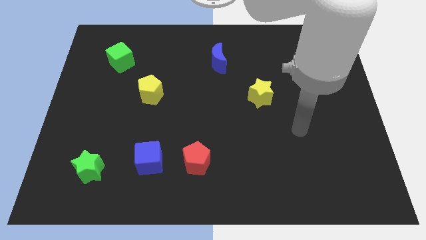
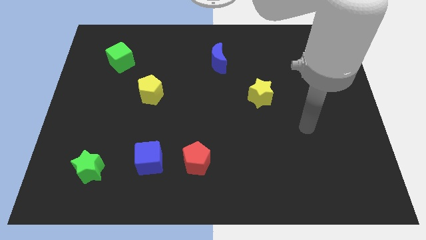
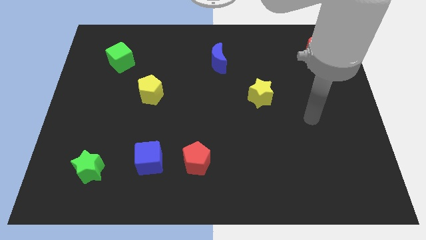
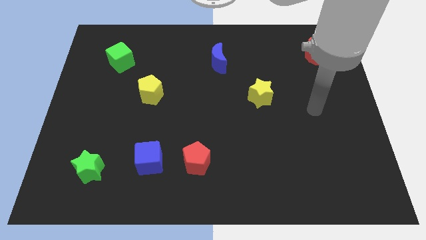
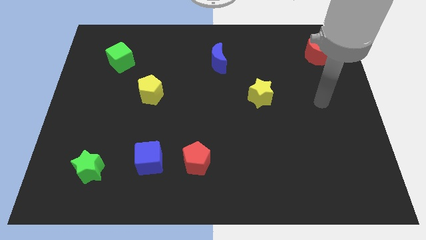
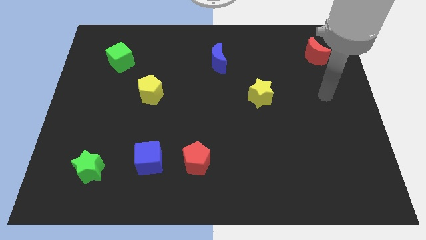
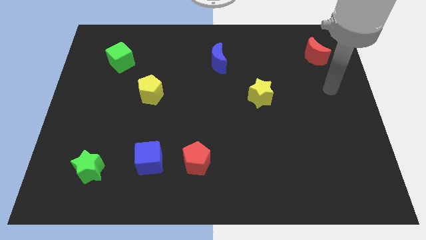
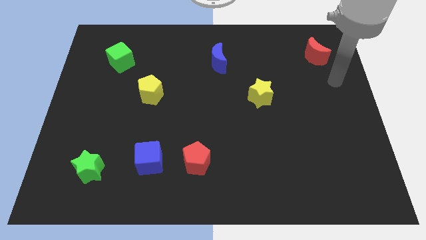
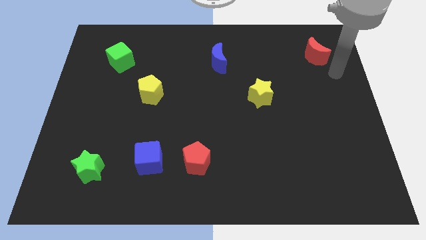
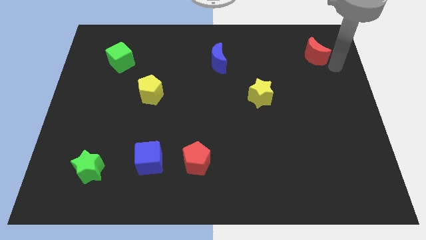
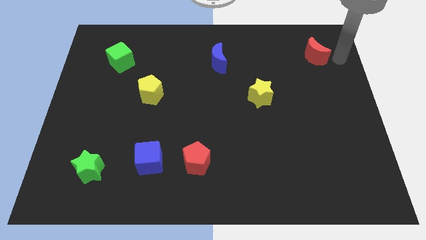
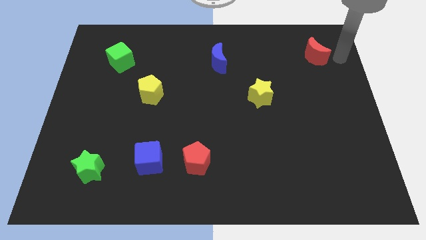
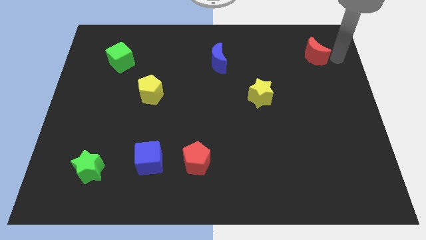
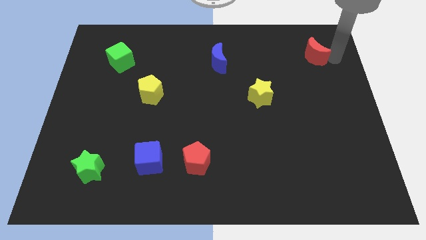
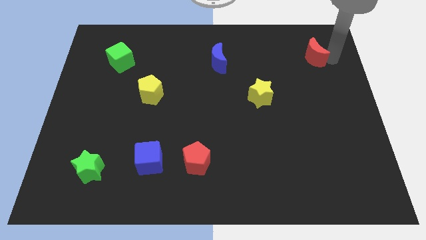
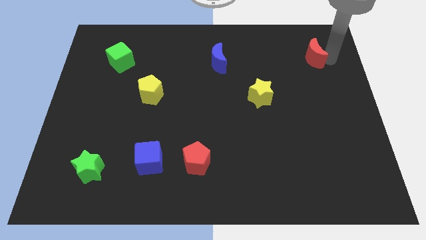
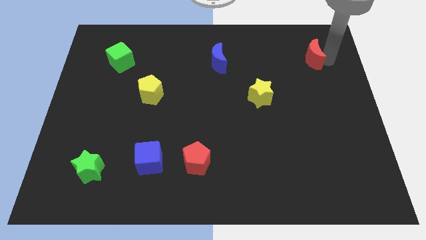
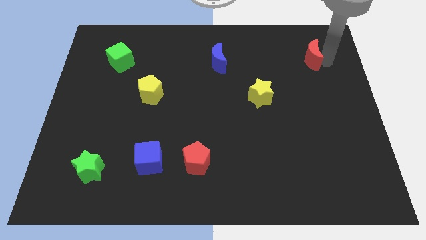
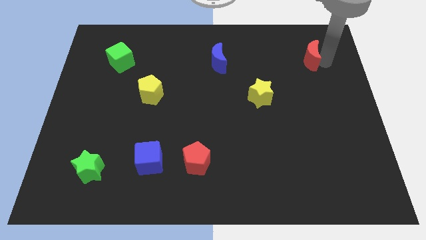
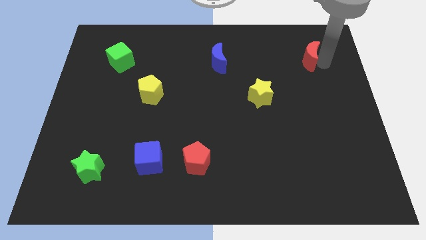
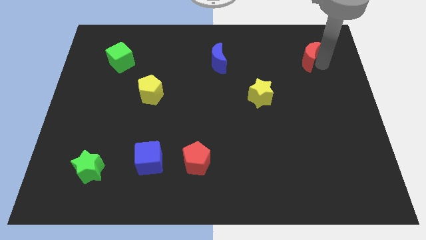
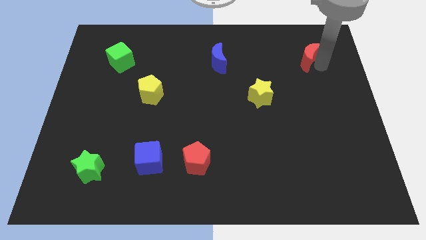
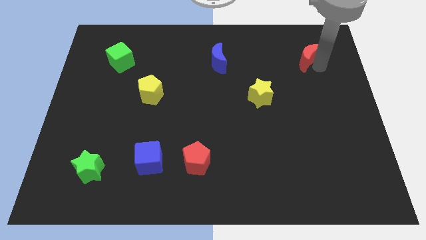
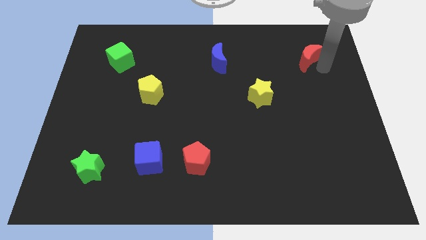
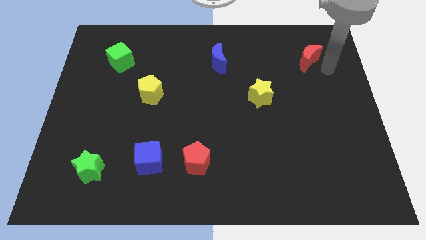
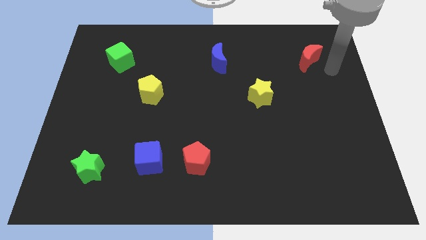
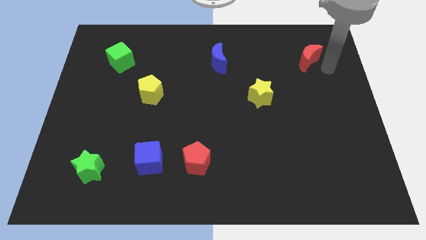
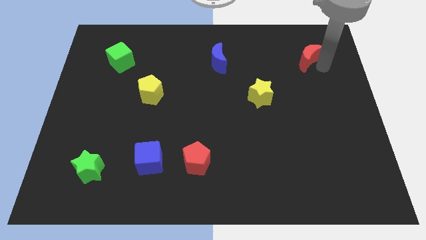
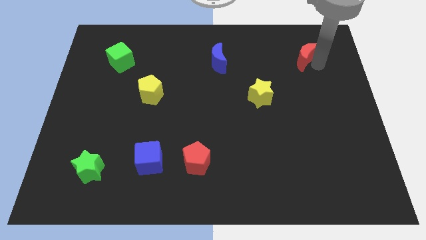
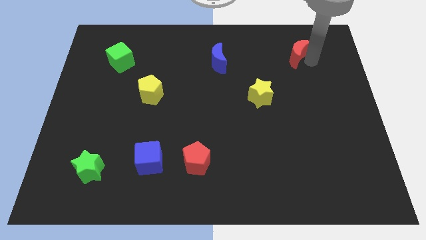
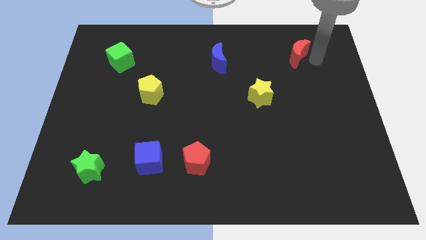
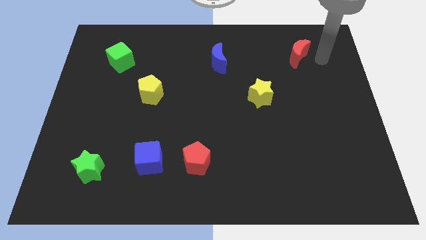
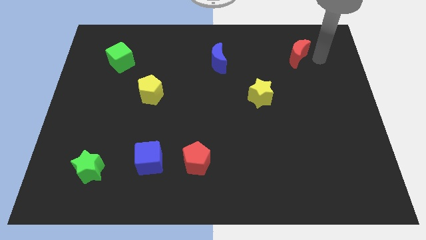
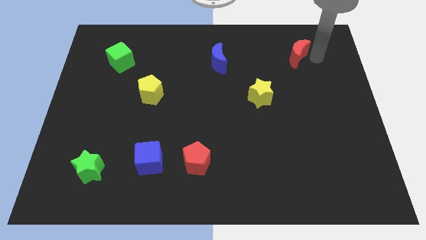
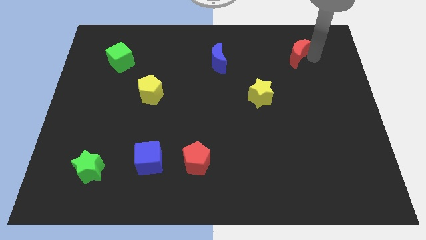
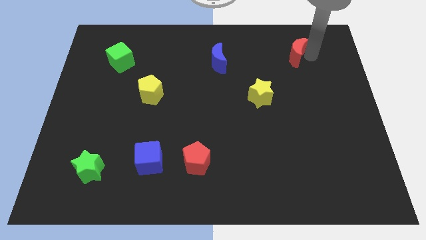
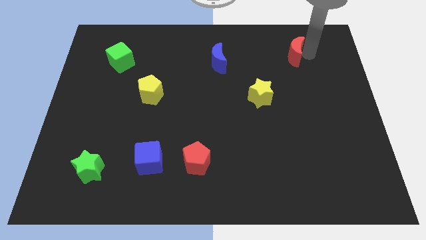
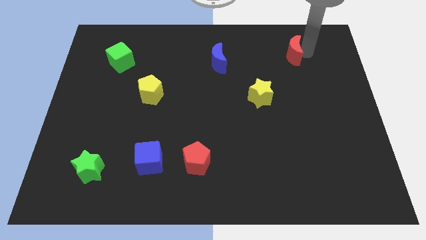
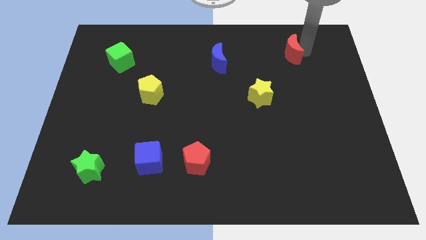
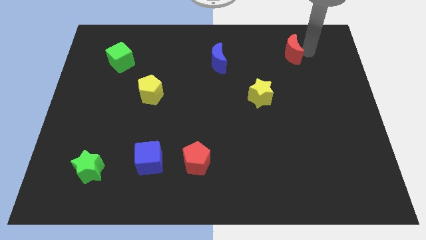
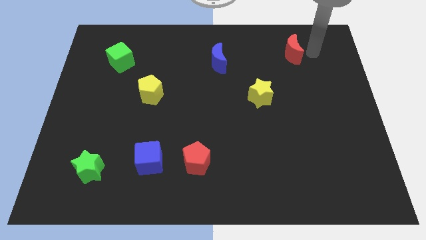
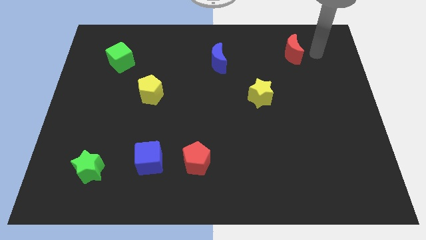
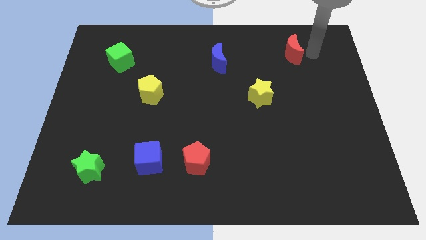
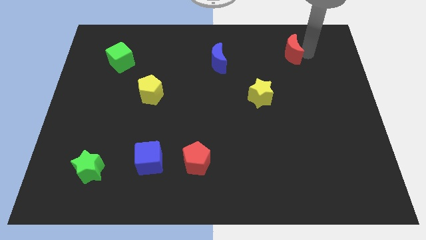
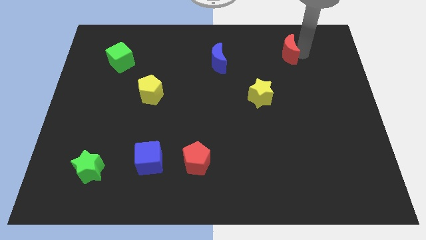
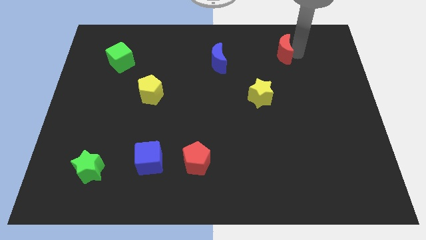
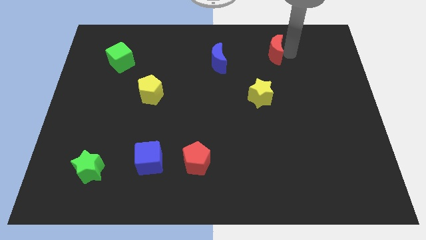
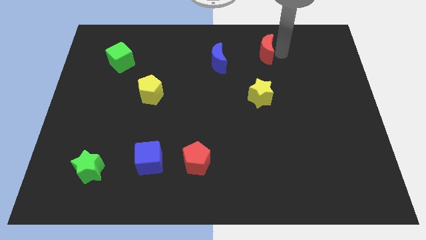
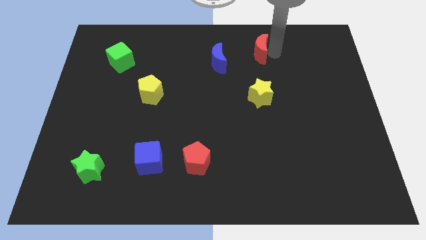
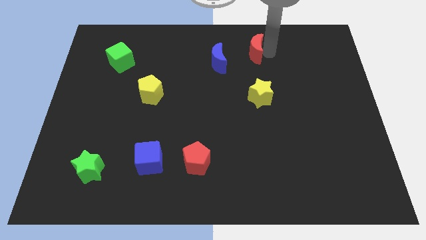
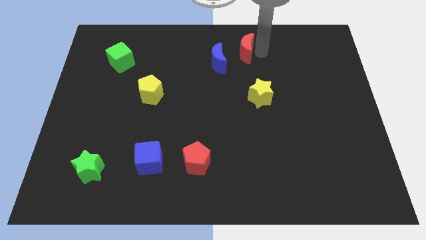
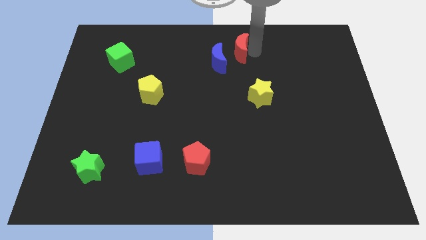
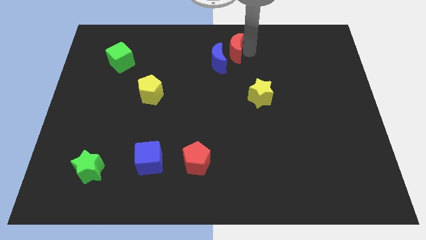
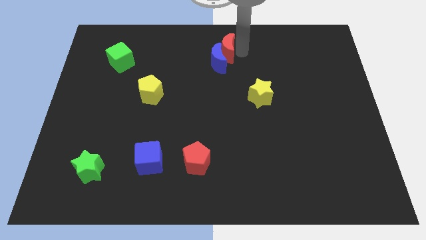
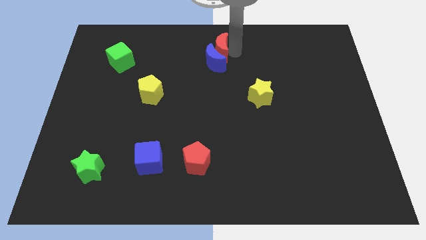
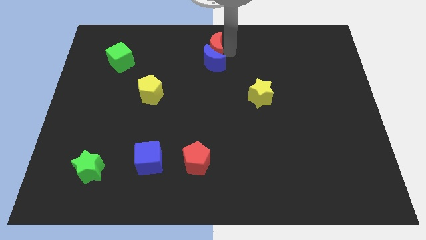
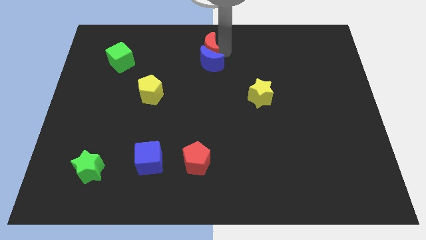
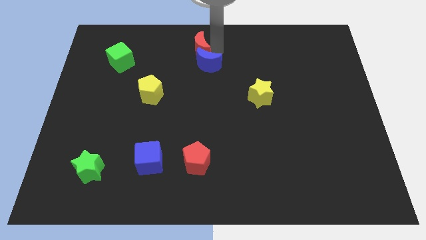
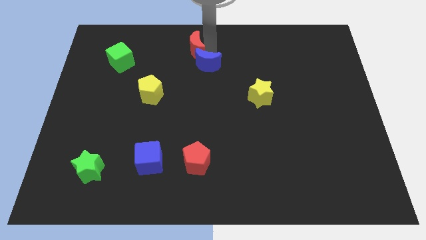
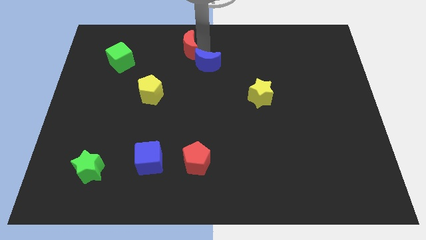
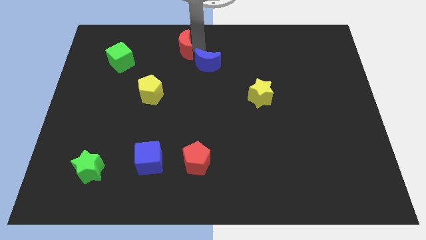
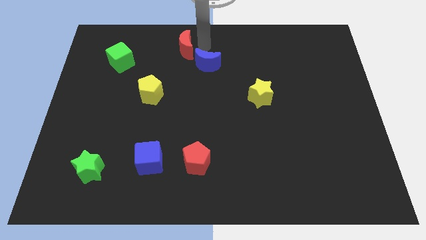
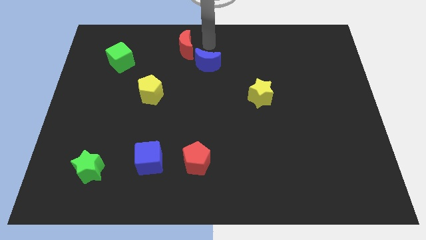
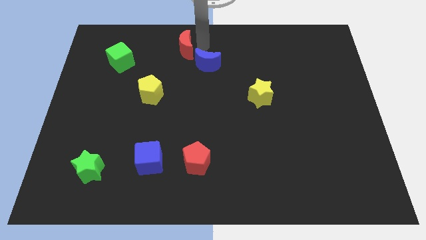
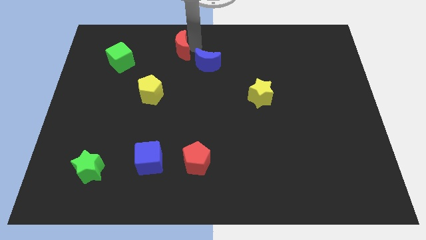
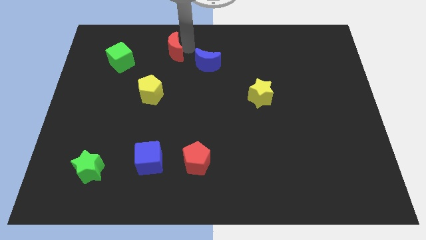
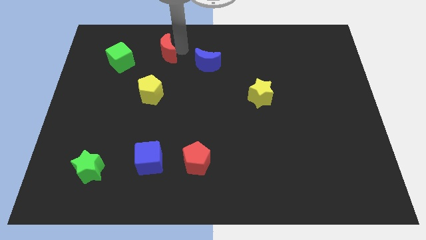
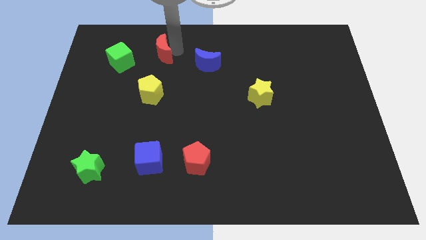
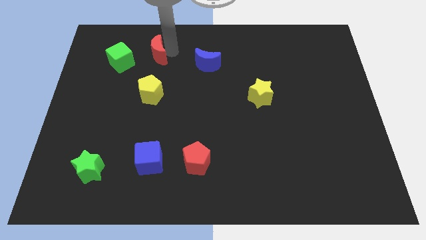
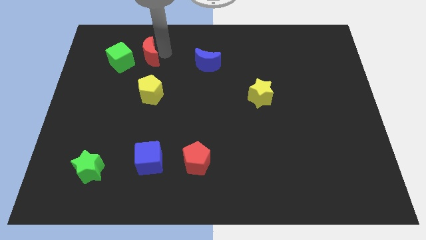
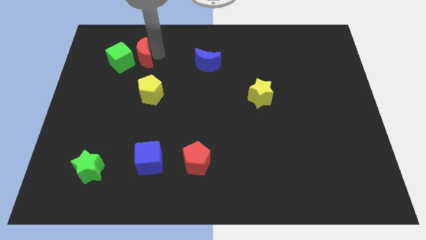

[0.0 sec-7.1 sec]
slide the red moon to the green cube
